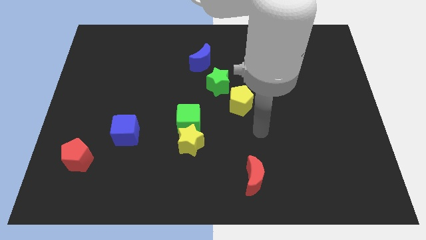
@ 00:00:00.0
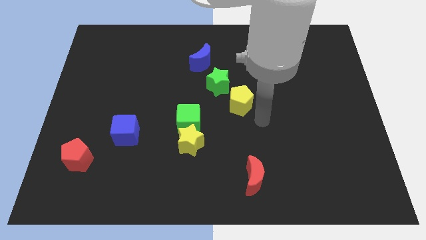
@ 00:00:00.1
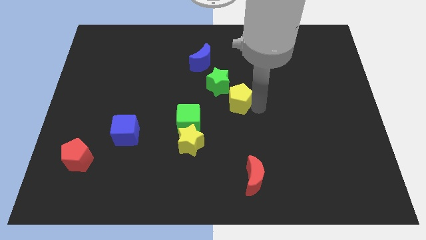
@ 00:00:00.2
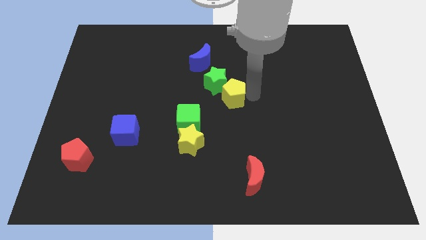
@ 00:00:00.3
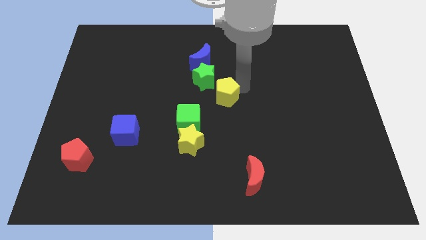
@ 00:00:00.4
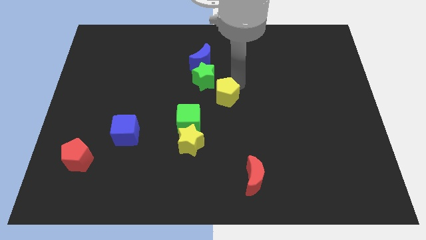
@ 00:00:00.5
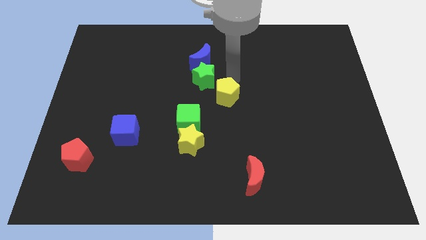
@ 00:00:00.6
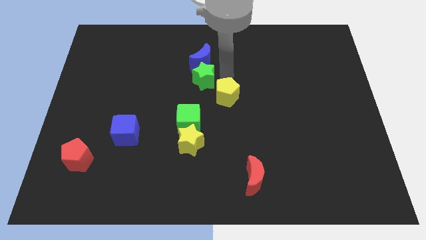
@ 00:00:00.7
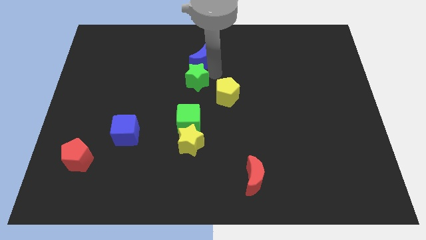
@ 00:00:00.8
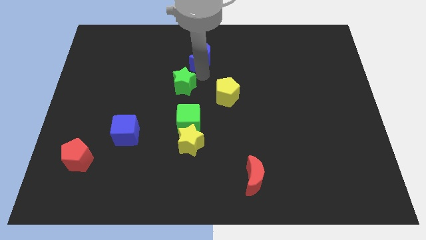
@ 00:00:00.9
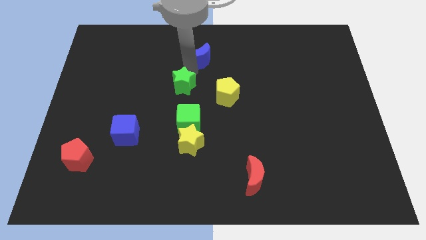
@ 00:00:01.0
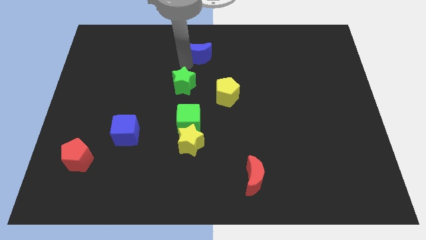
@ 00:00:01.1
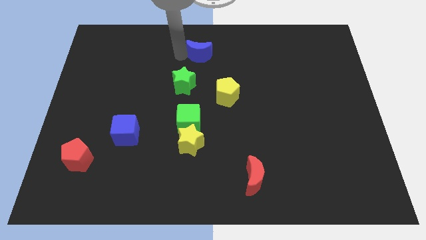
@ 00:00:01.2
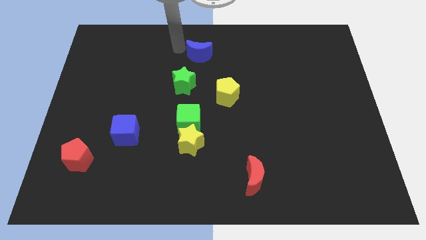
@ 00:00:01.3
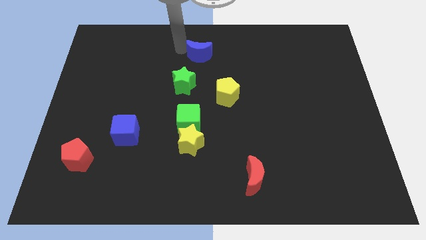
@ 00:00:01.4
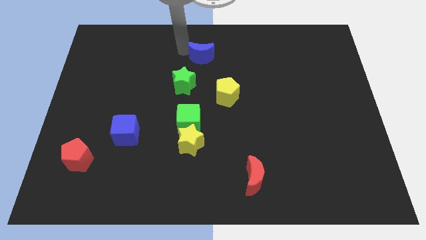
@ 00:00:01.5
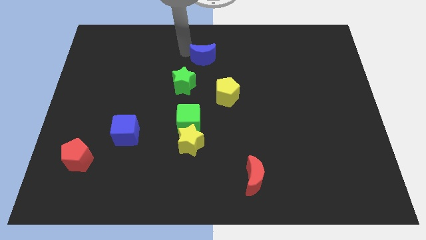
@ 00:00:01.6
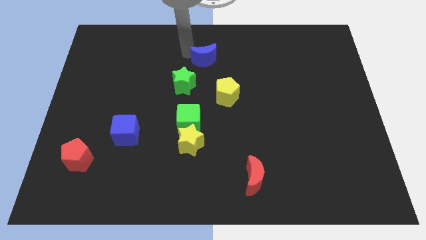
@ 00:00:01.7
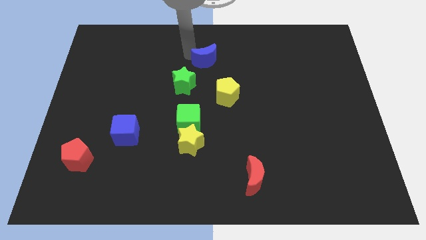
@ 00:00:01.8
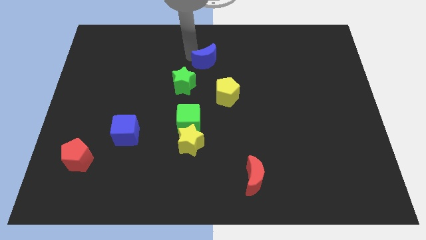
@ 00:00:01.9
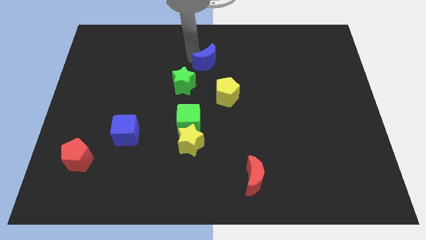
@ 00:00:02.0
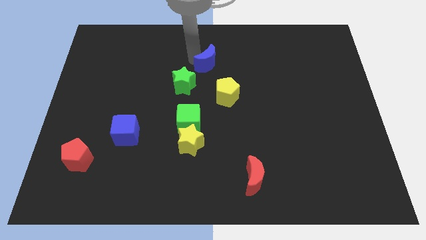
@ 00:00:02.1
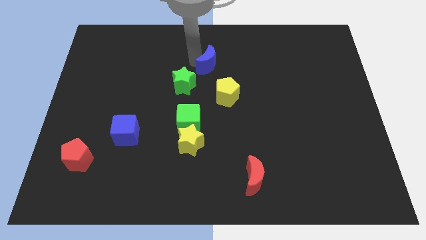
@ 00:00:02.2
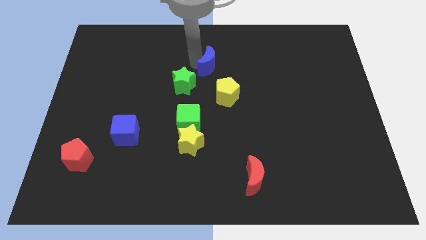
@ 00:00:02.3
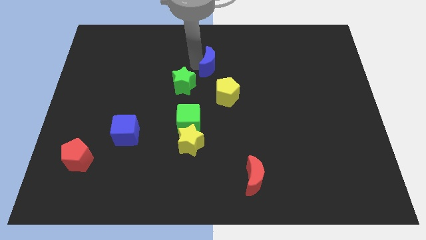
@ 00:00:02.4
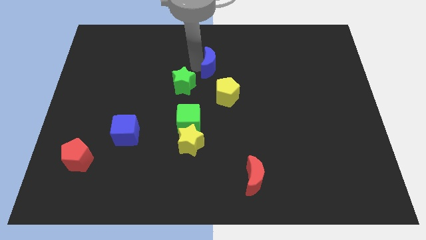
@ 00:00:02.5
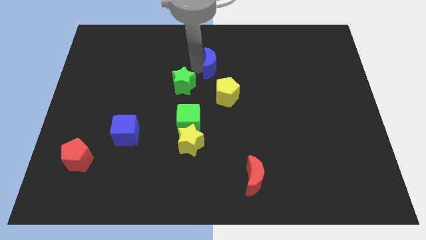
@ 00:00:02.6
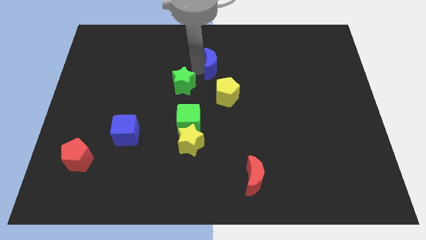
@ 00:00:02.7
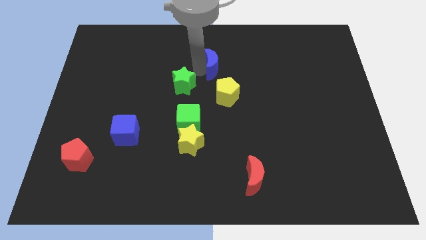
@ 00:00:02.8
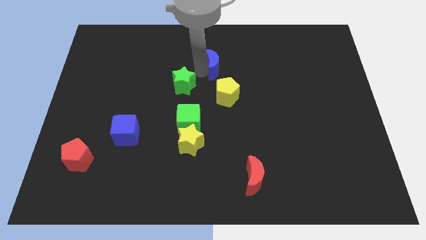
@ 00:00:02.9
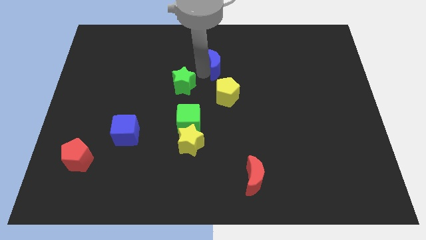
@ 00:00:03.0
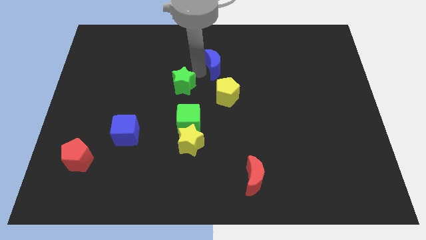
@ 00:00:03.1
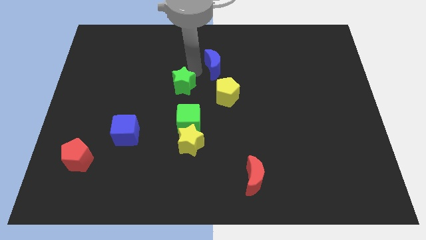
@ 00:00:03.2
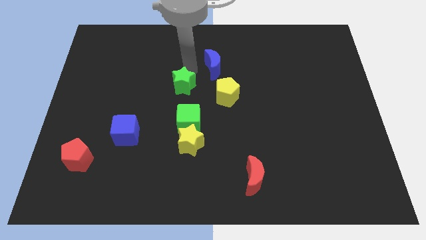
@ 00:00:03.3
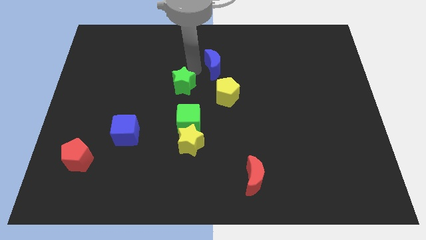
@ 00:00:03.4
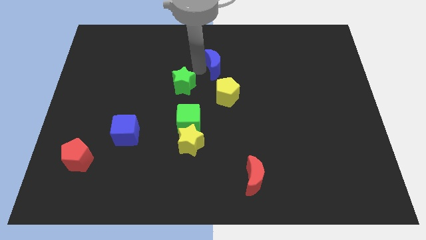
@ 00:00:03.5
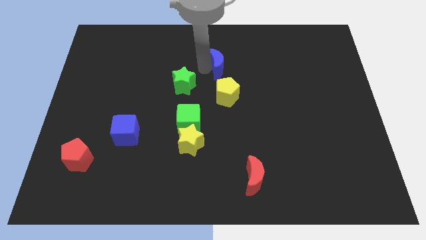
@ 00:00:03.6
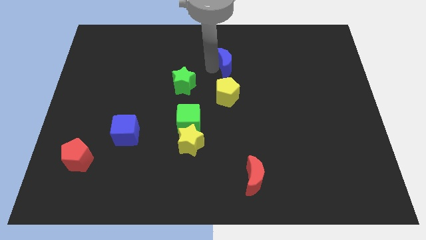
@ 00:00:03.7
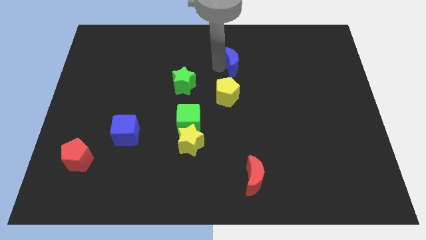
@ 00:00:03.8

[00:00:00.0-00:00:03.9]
move the blue moon right a little

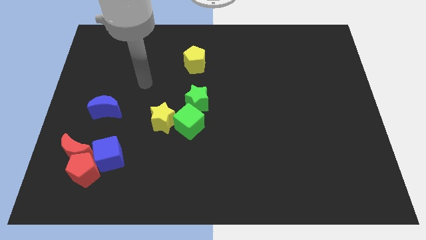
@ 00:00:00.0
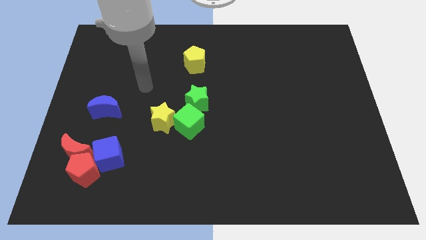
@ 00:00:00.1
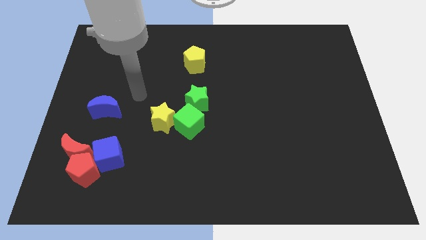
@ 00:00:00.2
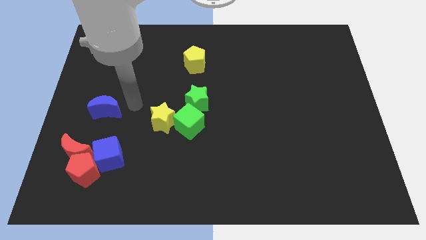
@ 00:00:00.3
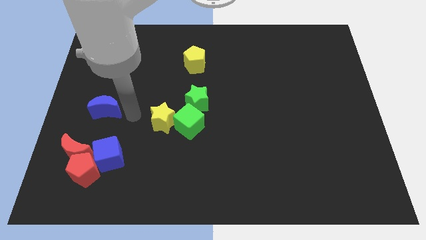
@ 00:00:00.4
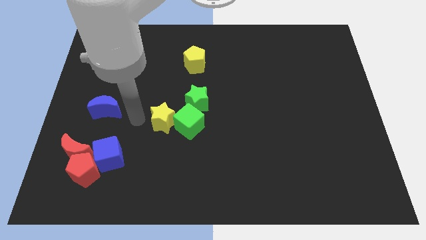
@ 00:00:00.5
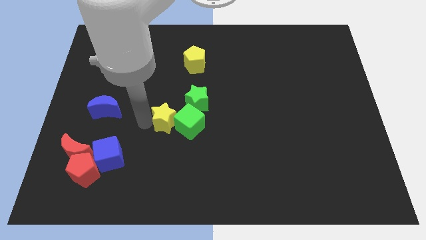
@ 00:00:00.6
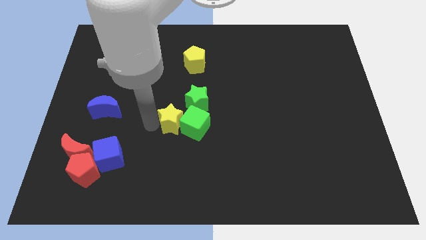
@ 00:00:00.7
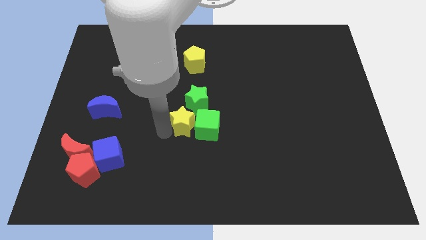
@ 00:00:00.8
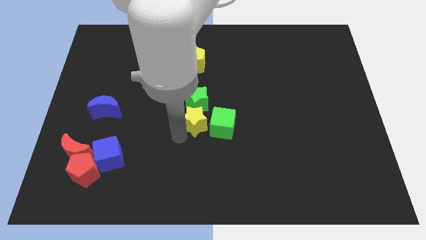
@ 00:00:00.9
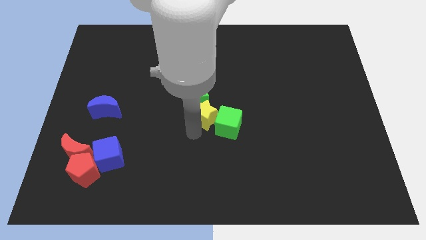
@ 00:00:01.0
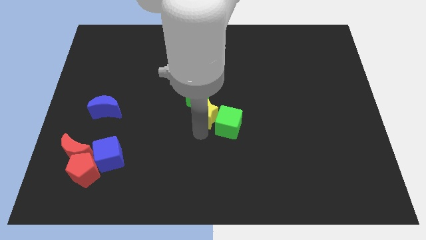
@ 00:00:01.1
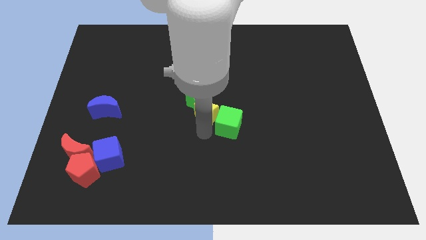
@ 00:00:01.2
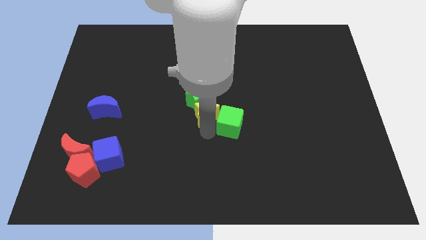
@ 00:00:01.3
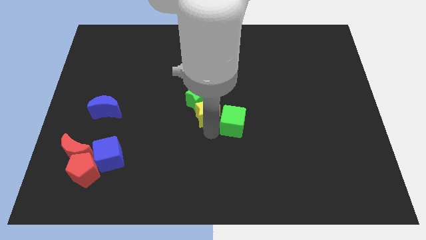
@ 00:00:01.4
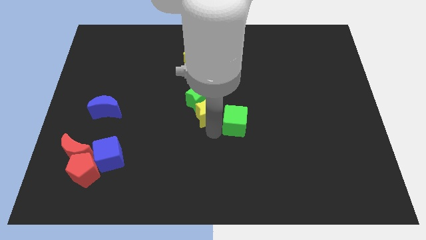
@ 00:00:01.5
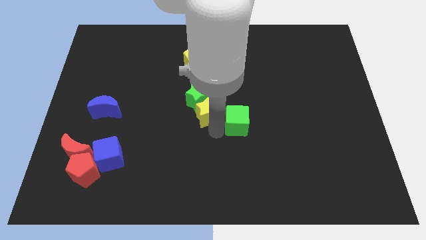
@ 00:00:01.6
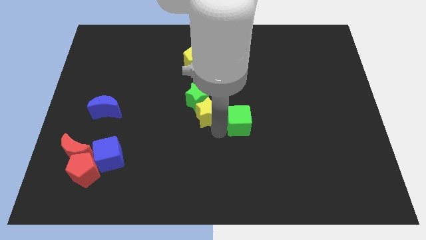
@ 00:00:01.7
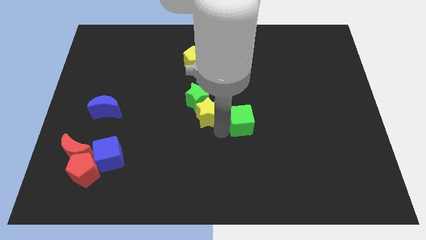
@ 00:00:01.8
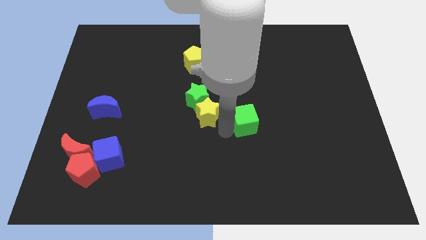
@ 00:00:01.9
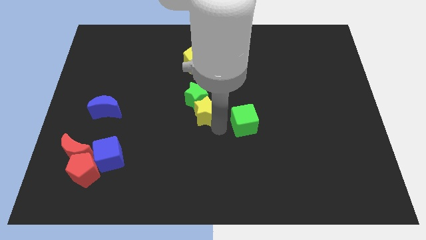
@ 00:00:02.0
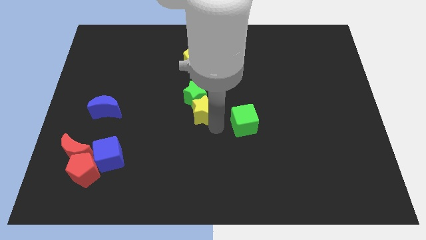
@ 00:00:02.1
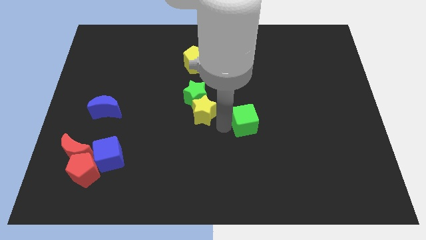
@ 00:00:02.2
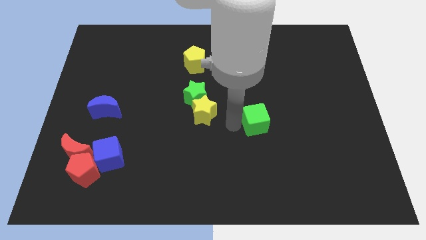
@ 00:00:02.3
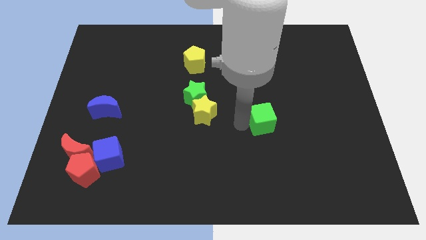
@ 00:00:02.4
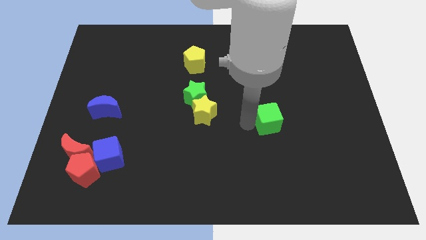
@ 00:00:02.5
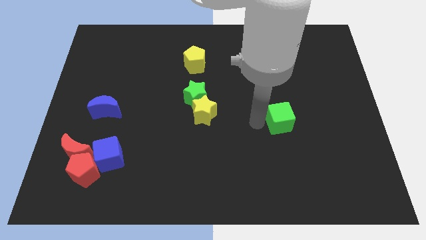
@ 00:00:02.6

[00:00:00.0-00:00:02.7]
push the green cube right

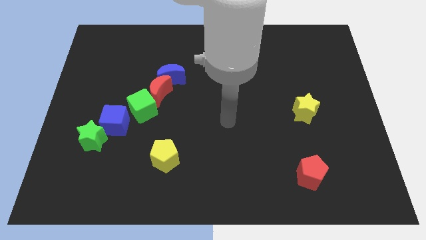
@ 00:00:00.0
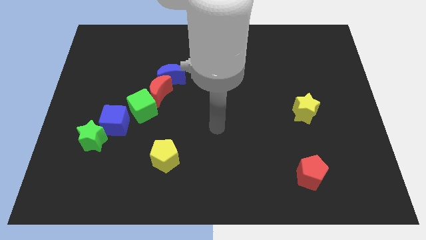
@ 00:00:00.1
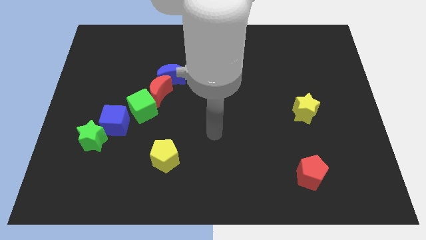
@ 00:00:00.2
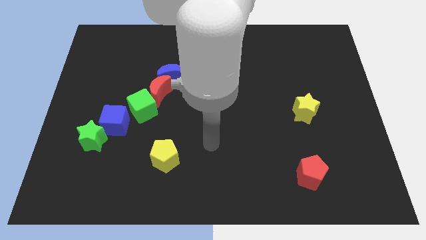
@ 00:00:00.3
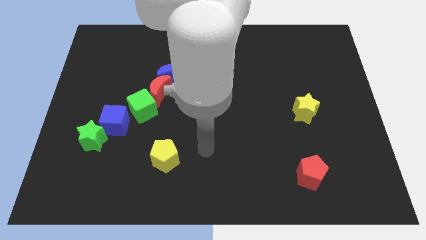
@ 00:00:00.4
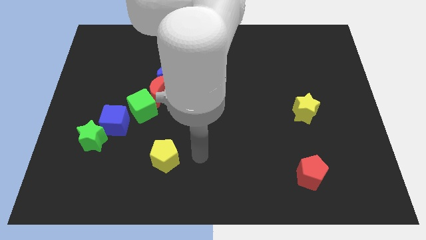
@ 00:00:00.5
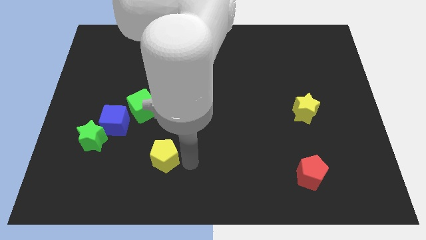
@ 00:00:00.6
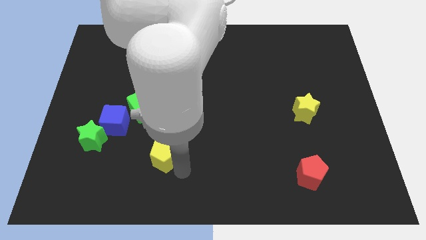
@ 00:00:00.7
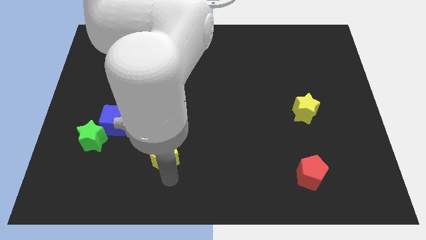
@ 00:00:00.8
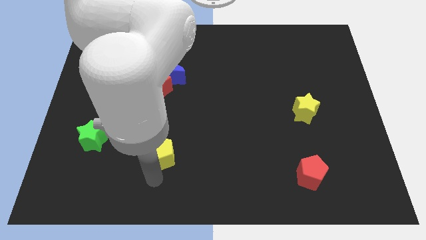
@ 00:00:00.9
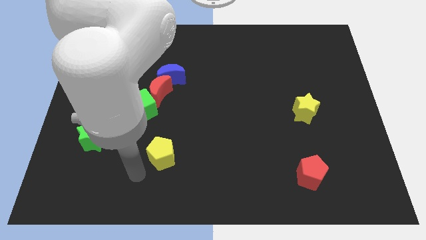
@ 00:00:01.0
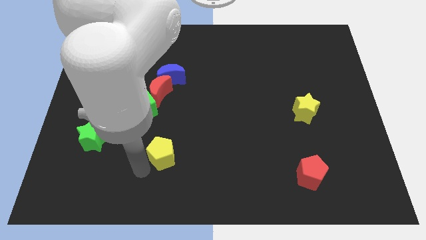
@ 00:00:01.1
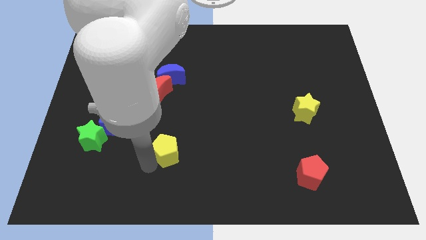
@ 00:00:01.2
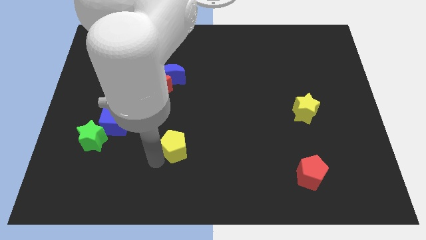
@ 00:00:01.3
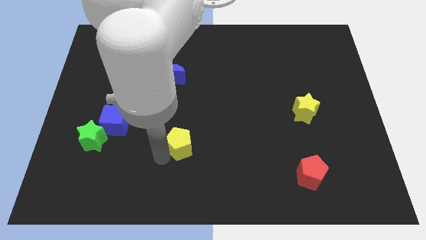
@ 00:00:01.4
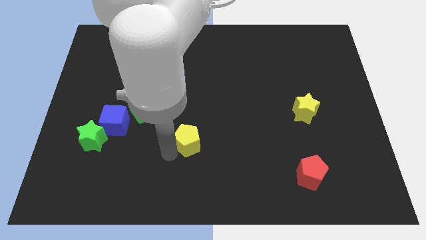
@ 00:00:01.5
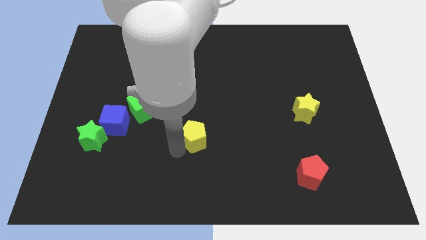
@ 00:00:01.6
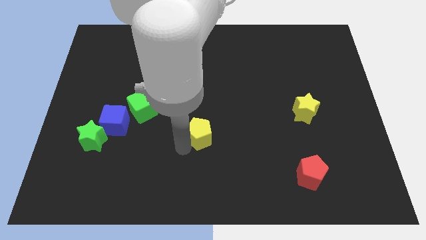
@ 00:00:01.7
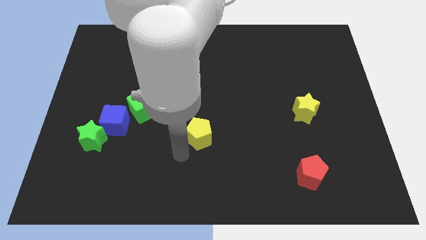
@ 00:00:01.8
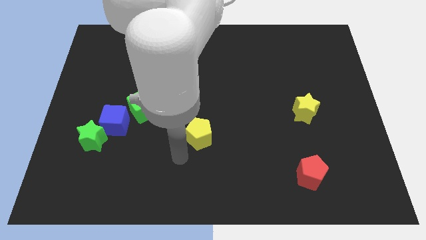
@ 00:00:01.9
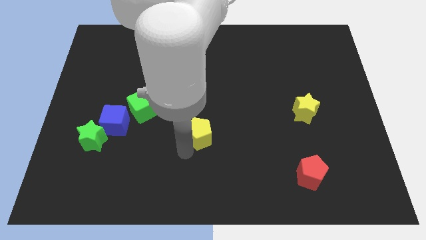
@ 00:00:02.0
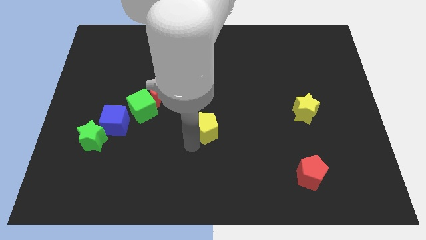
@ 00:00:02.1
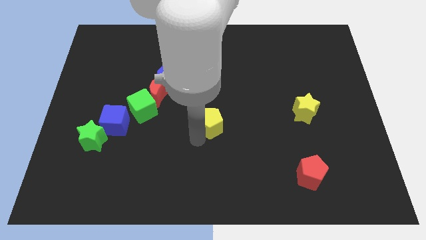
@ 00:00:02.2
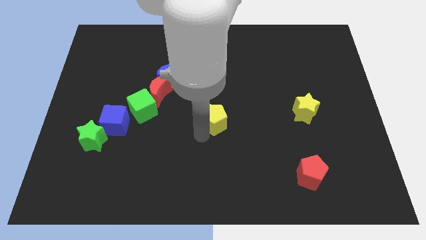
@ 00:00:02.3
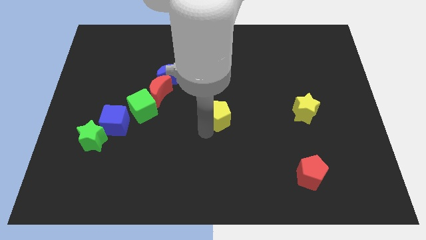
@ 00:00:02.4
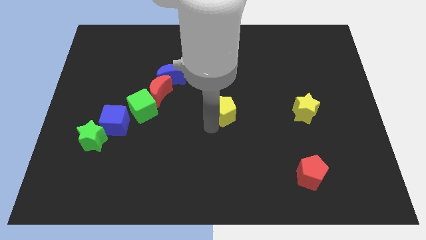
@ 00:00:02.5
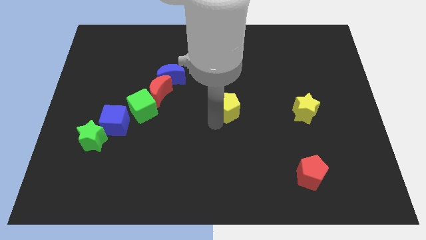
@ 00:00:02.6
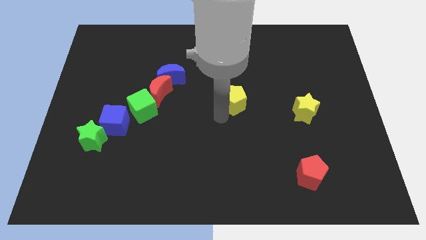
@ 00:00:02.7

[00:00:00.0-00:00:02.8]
move the yellow pentagon diagonally up and to the right
